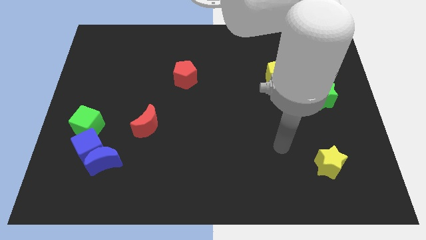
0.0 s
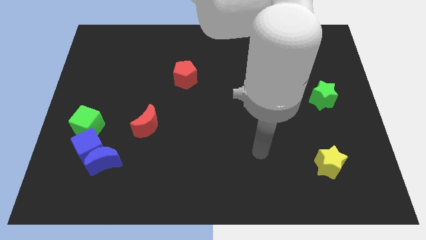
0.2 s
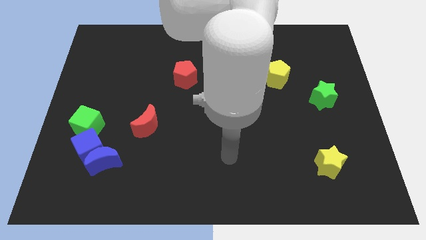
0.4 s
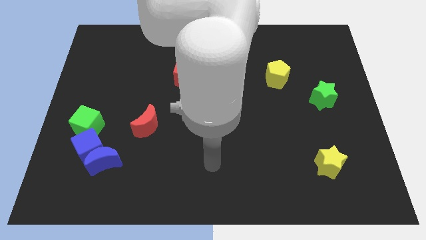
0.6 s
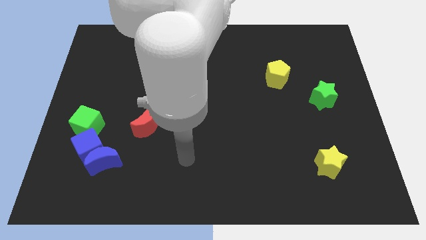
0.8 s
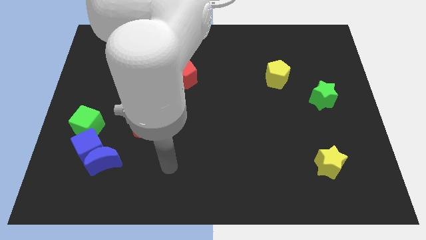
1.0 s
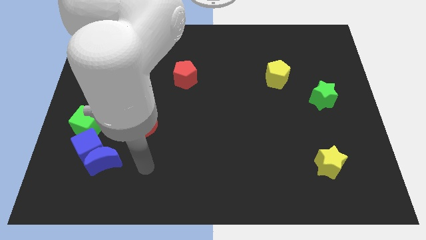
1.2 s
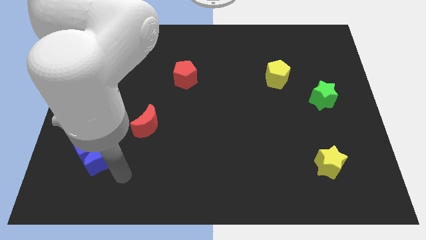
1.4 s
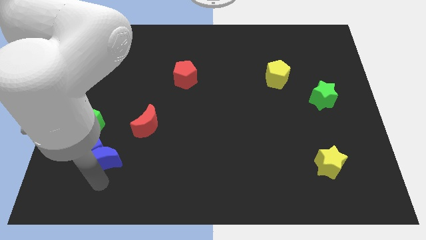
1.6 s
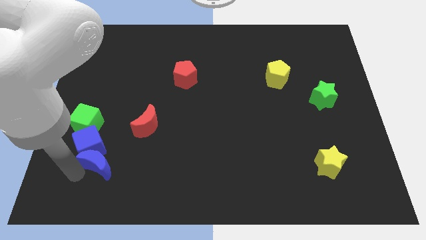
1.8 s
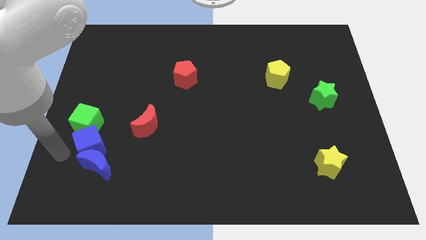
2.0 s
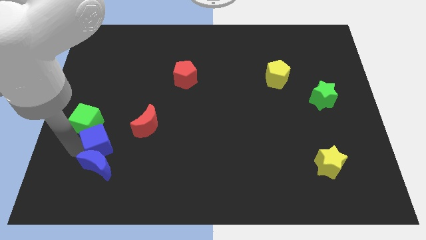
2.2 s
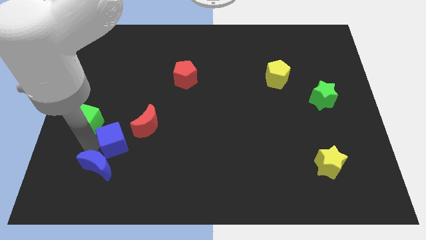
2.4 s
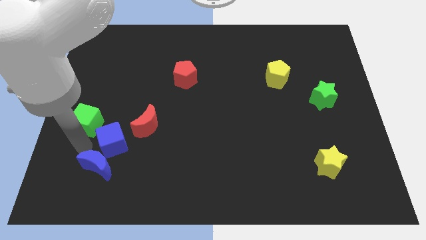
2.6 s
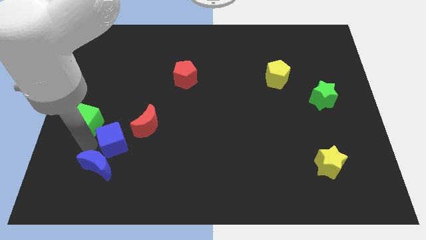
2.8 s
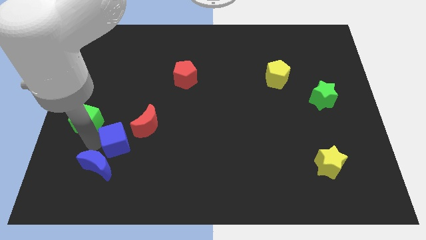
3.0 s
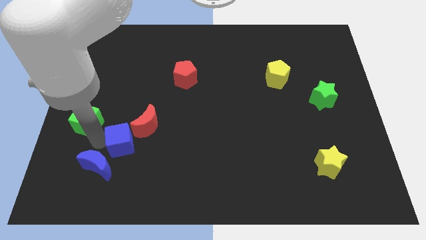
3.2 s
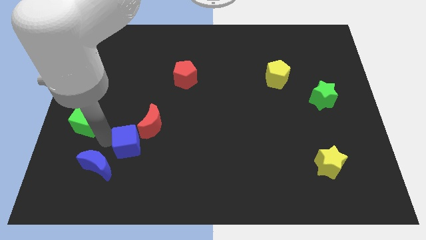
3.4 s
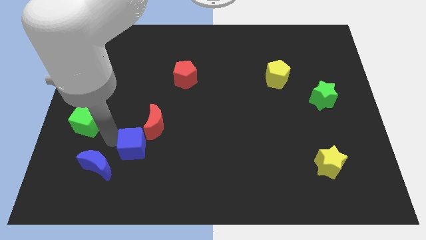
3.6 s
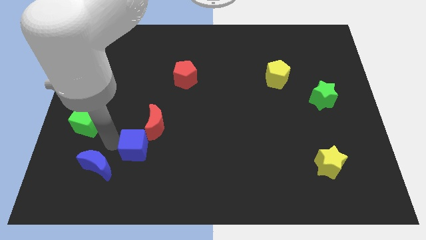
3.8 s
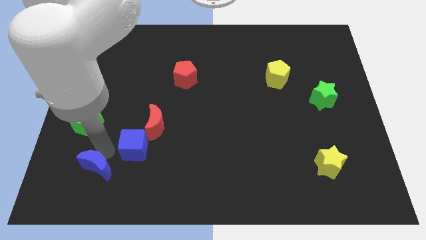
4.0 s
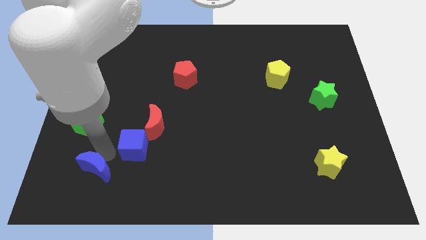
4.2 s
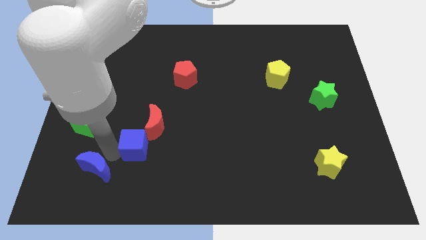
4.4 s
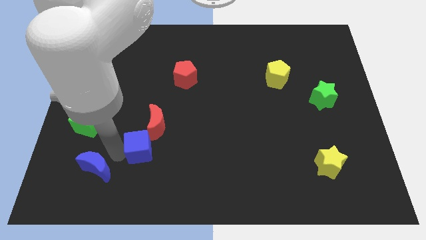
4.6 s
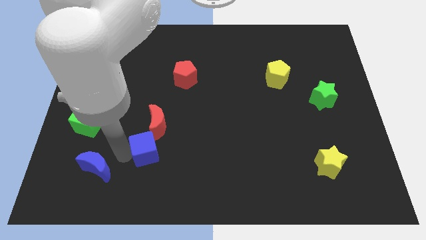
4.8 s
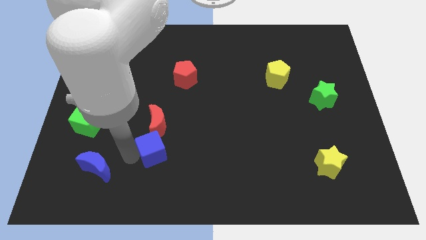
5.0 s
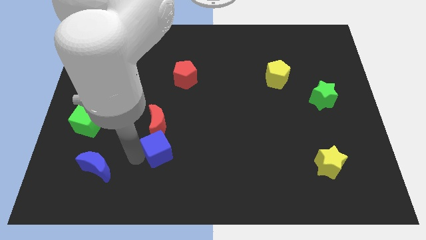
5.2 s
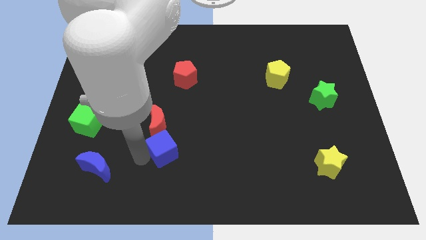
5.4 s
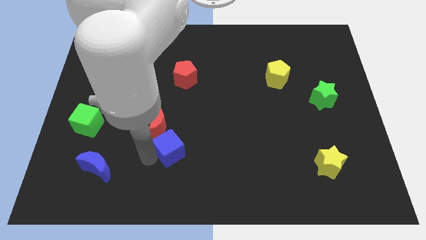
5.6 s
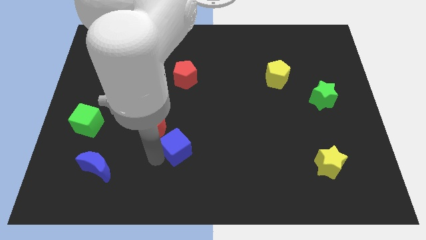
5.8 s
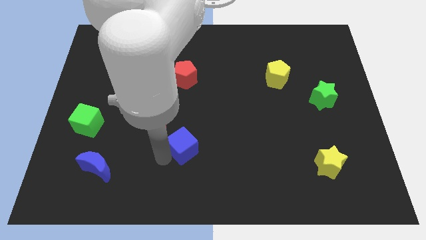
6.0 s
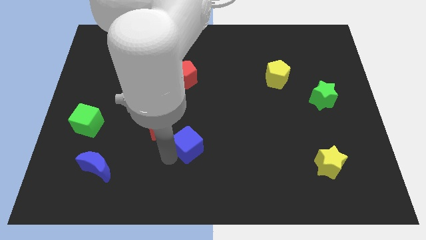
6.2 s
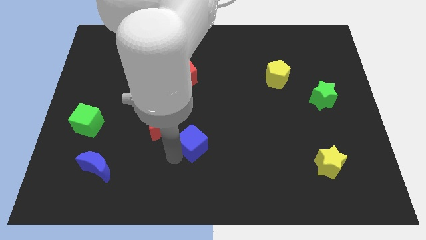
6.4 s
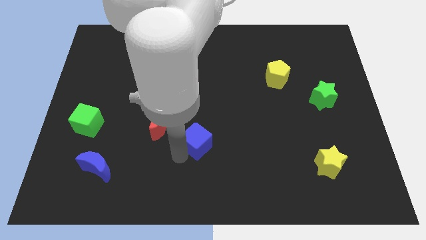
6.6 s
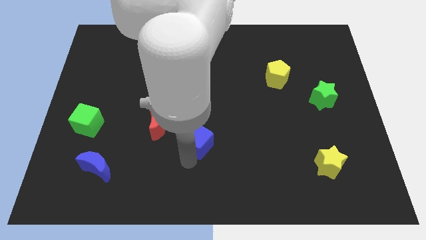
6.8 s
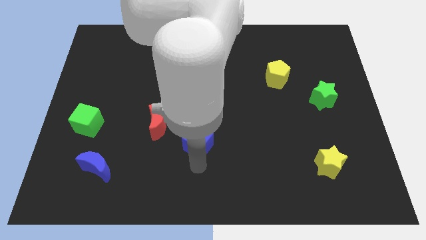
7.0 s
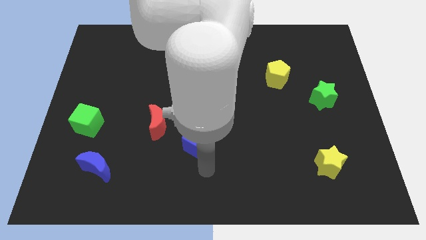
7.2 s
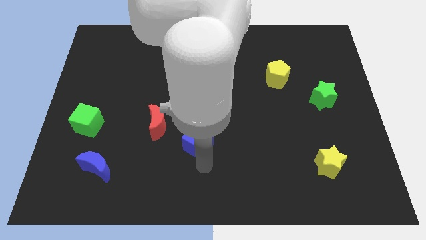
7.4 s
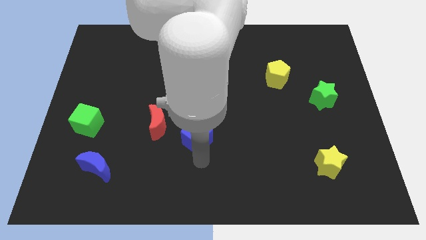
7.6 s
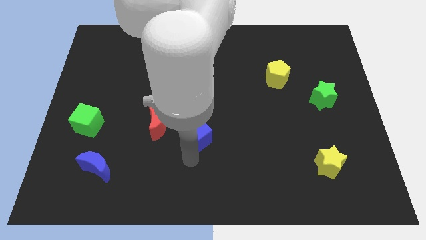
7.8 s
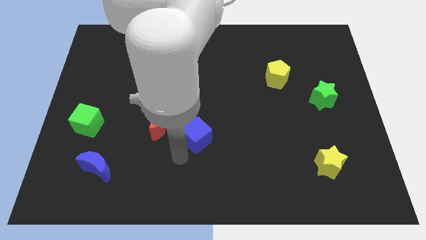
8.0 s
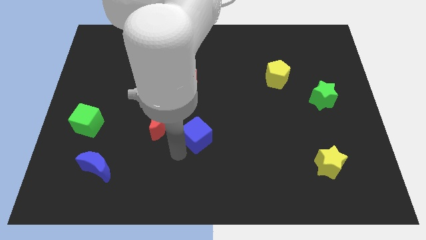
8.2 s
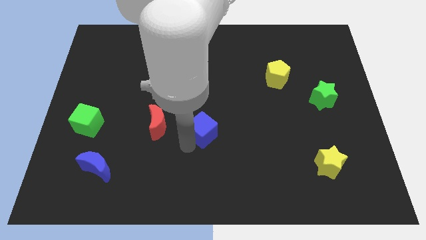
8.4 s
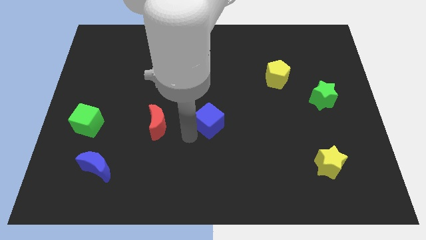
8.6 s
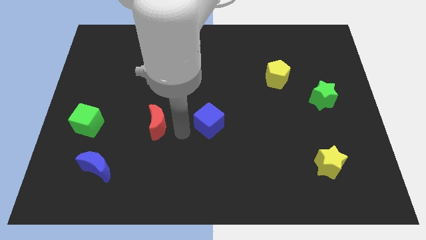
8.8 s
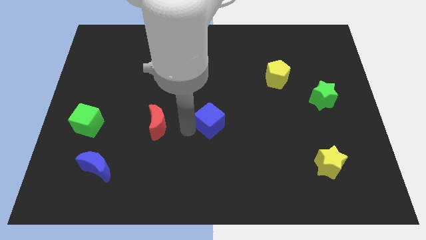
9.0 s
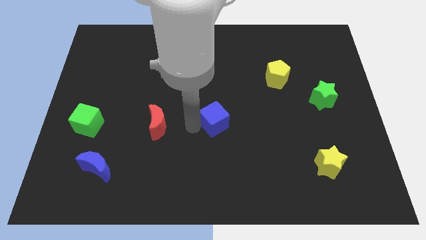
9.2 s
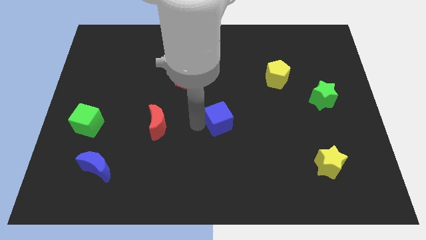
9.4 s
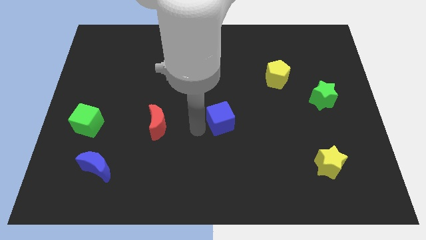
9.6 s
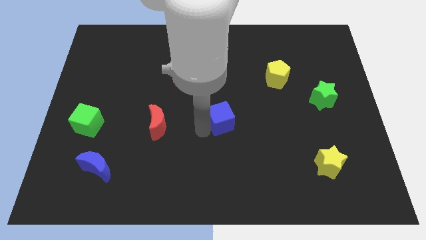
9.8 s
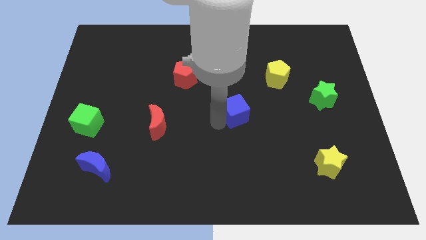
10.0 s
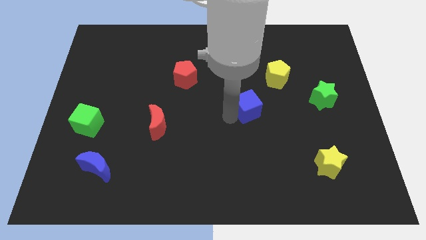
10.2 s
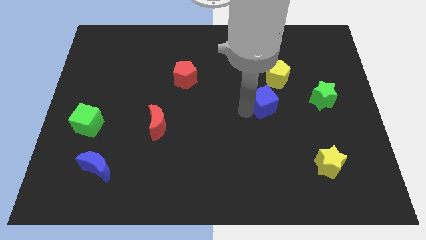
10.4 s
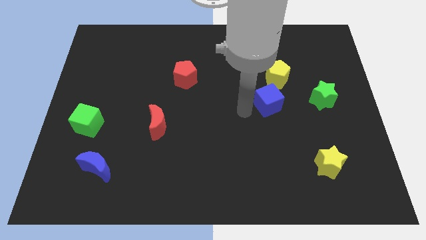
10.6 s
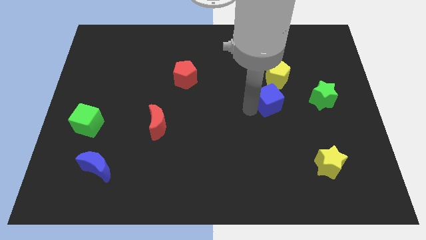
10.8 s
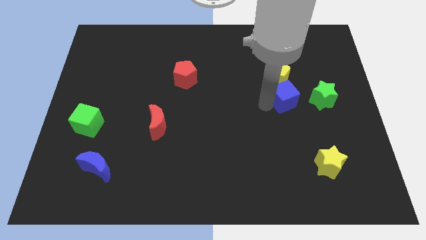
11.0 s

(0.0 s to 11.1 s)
move the blue cube to the bottom right of the yellow pentagon

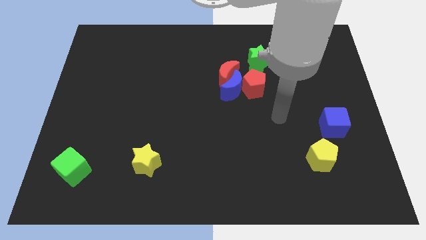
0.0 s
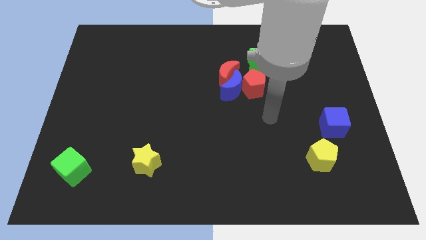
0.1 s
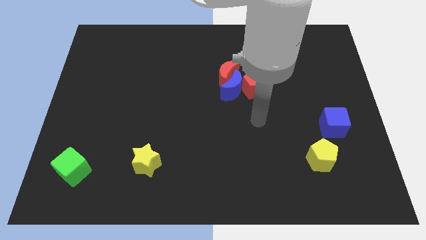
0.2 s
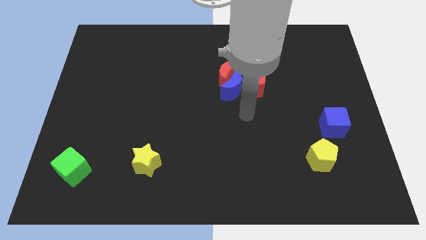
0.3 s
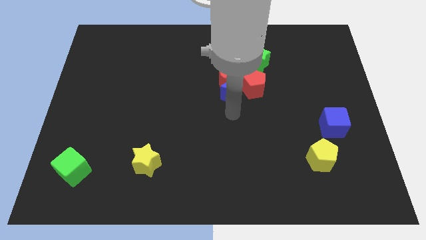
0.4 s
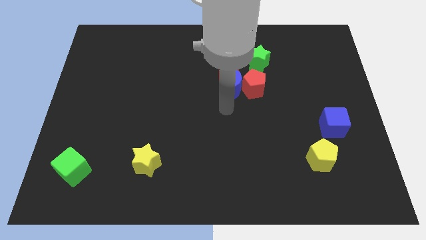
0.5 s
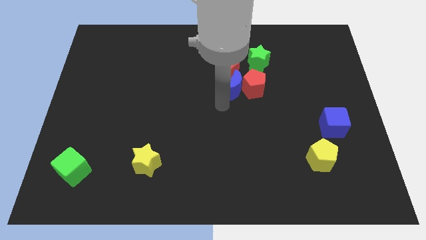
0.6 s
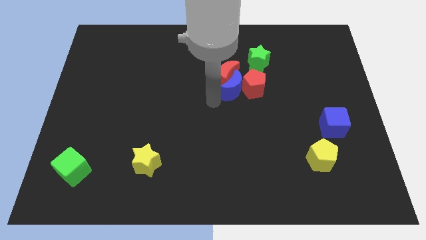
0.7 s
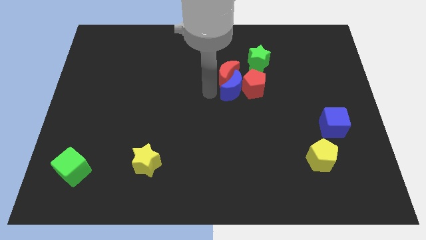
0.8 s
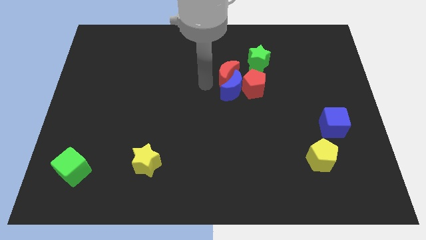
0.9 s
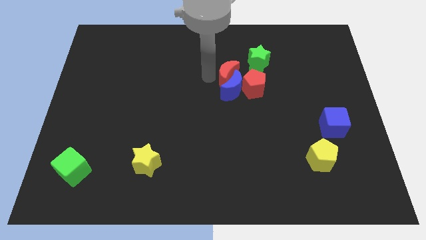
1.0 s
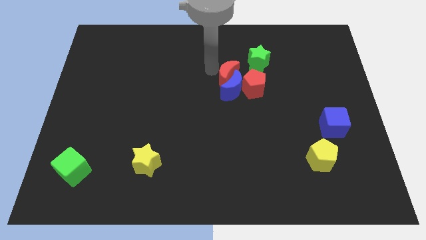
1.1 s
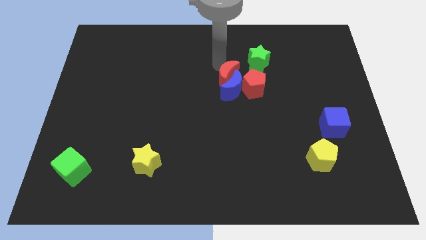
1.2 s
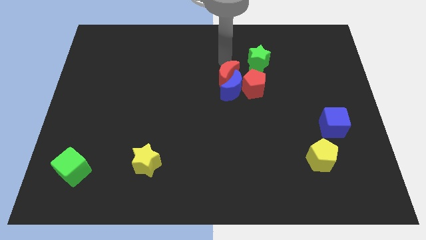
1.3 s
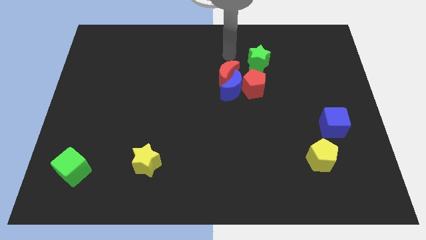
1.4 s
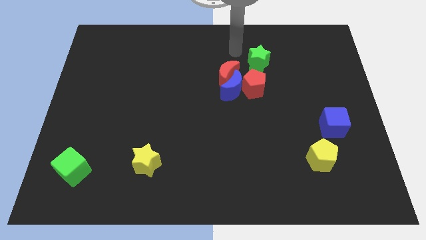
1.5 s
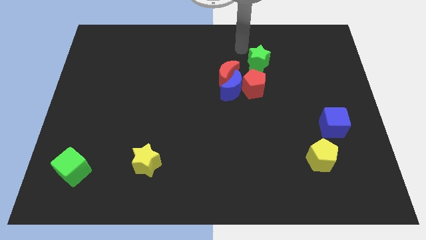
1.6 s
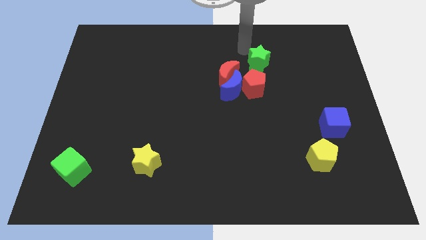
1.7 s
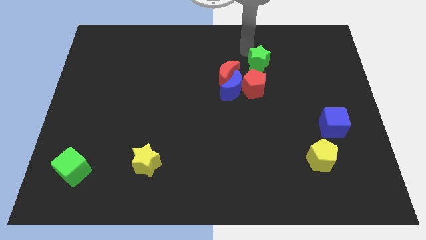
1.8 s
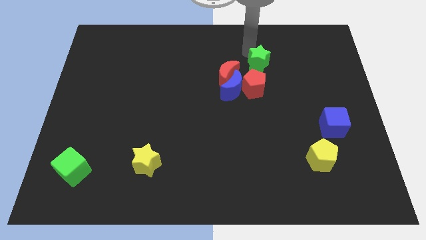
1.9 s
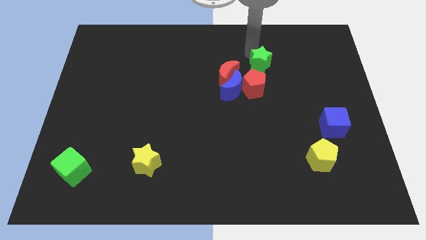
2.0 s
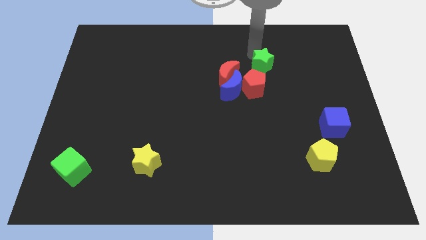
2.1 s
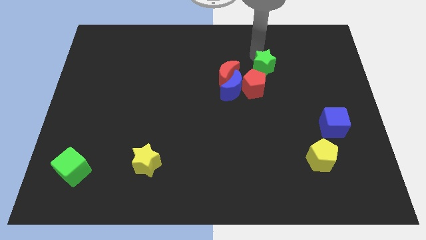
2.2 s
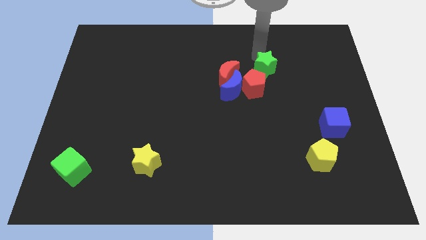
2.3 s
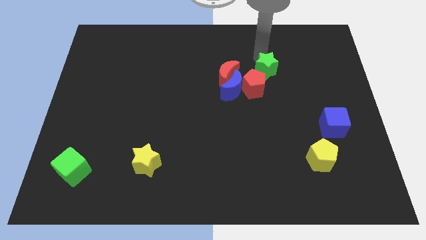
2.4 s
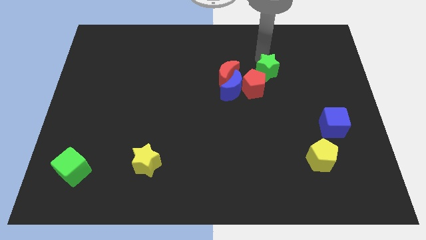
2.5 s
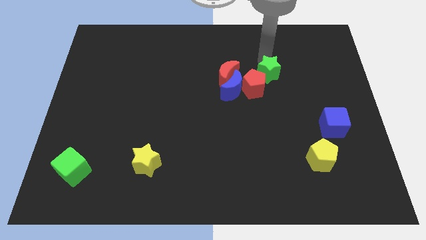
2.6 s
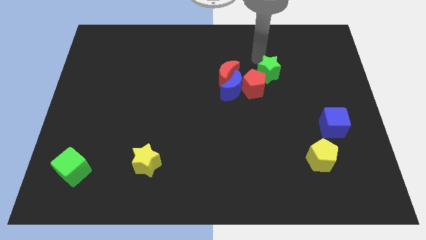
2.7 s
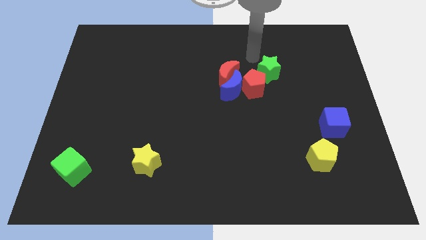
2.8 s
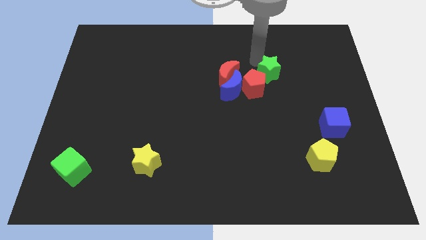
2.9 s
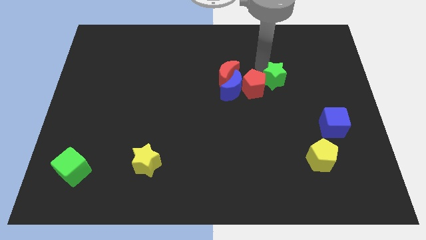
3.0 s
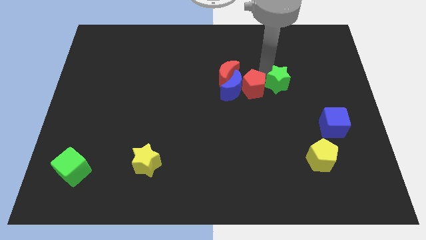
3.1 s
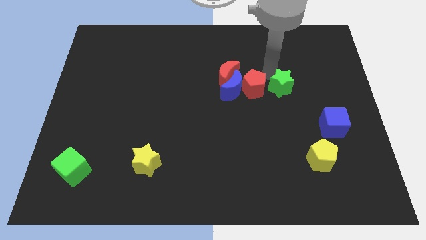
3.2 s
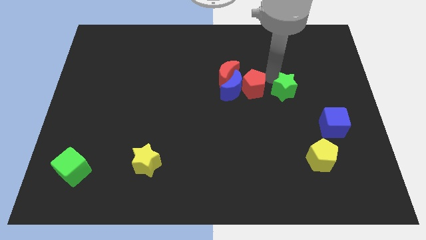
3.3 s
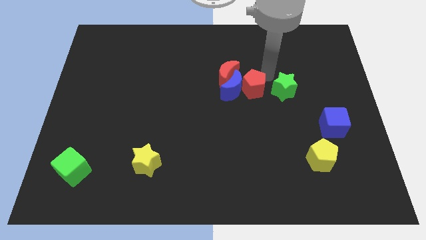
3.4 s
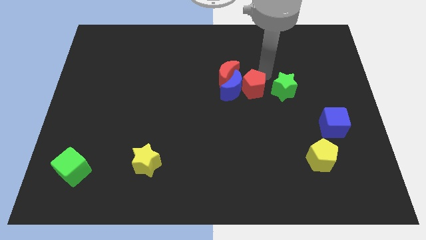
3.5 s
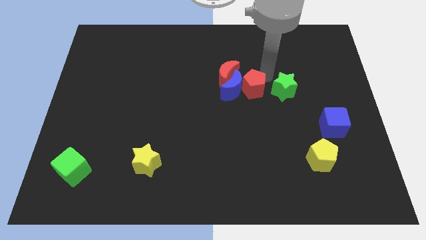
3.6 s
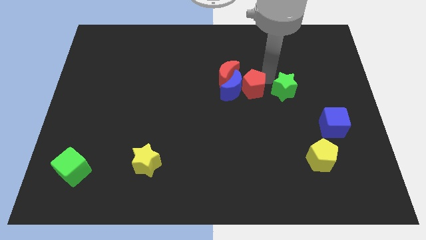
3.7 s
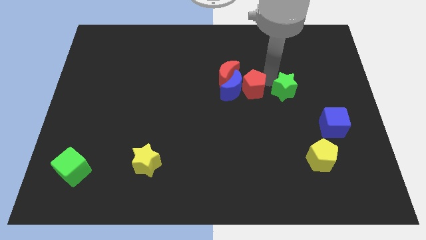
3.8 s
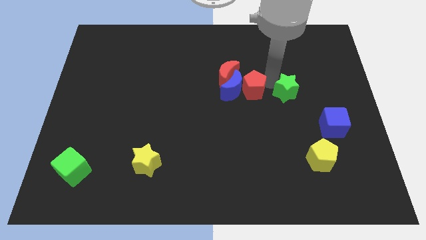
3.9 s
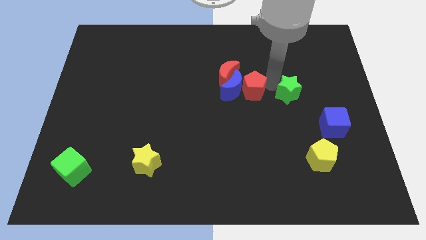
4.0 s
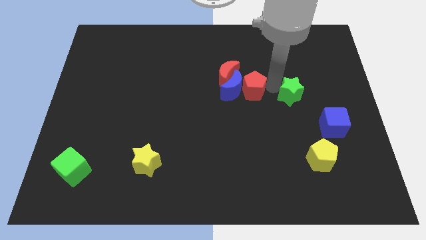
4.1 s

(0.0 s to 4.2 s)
push the green star to the top left of the blue cube
